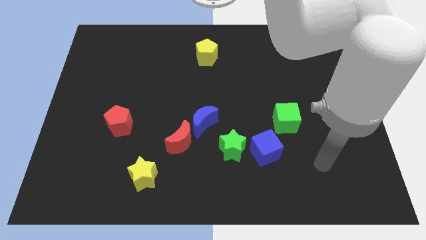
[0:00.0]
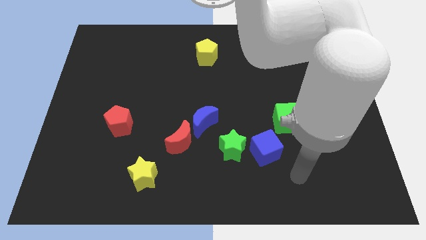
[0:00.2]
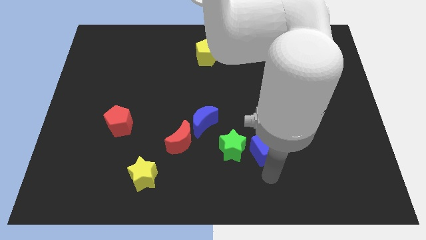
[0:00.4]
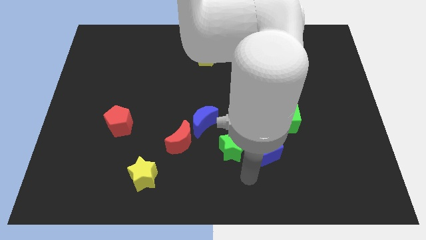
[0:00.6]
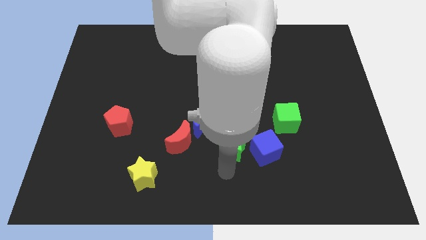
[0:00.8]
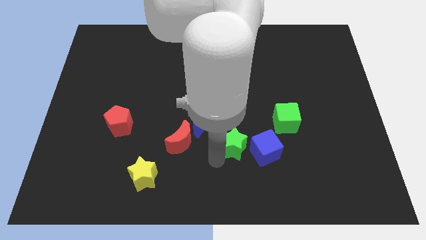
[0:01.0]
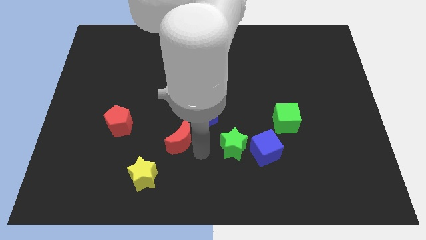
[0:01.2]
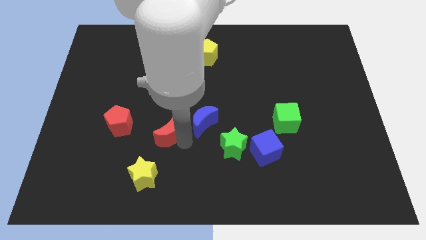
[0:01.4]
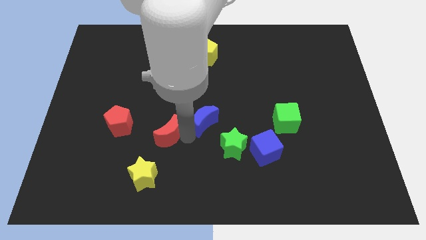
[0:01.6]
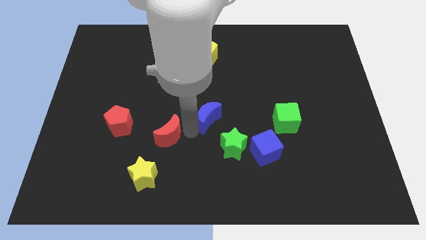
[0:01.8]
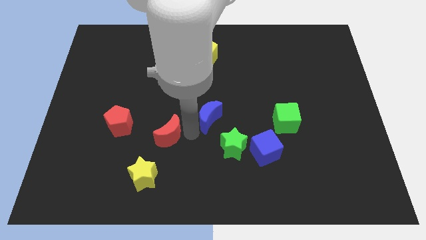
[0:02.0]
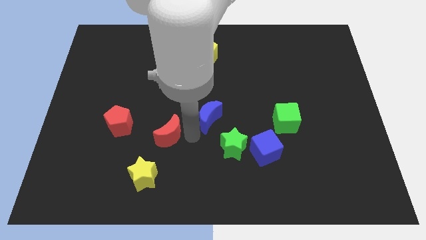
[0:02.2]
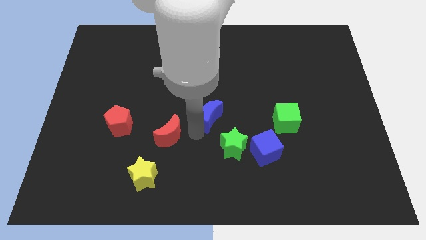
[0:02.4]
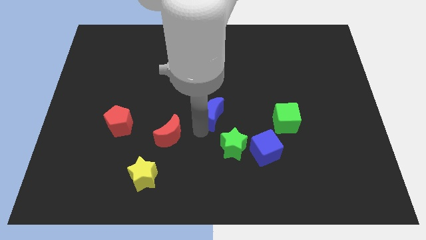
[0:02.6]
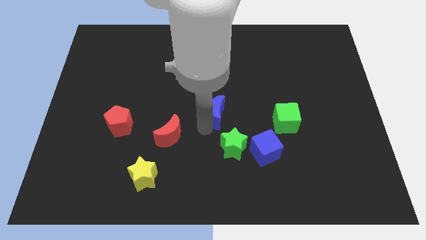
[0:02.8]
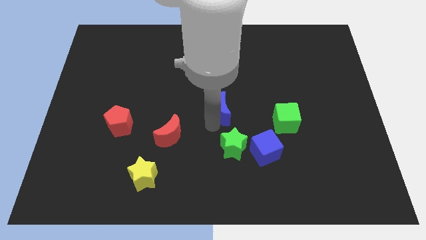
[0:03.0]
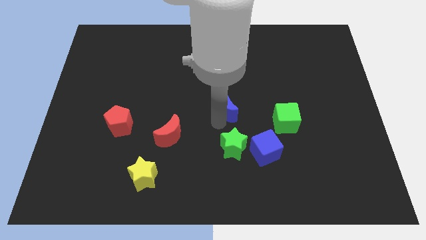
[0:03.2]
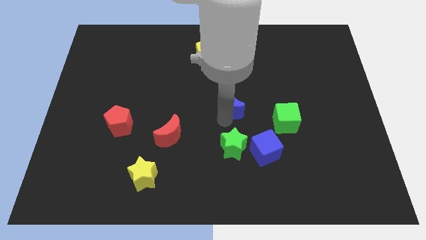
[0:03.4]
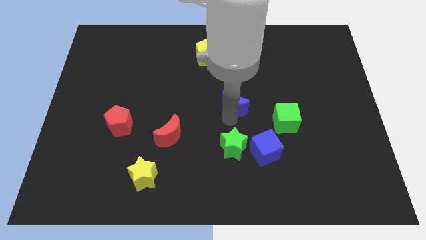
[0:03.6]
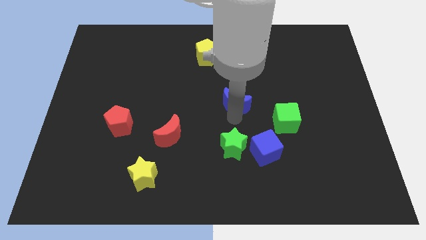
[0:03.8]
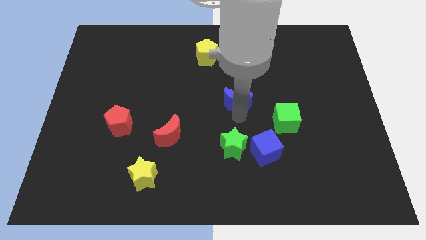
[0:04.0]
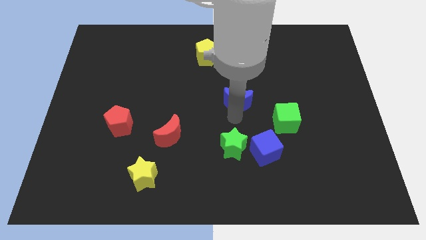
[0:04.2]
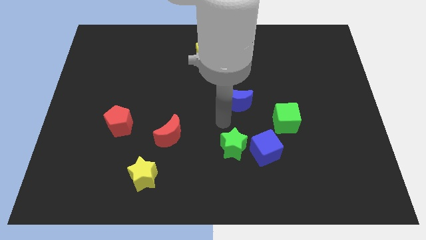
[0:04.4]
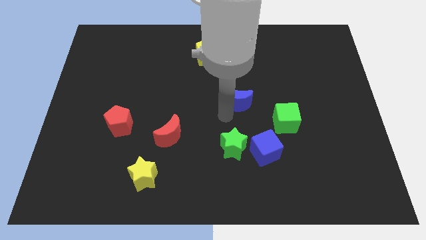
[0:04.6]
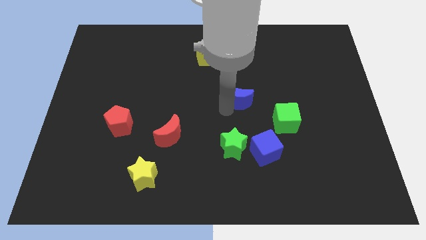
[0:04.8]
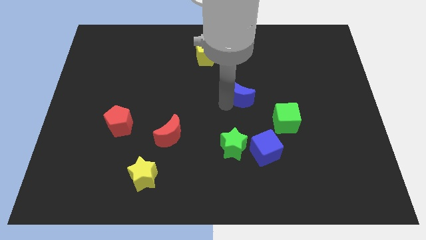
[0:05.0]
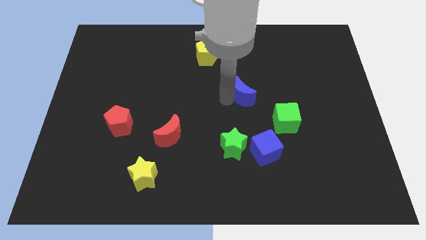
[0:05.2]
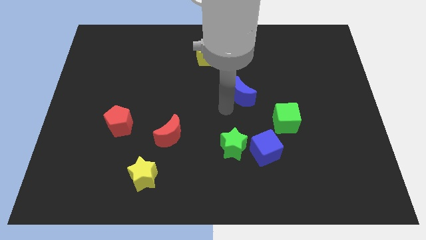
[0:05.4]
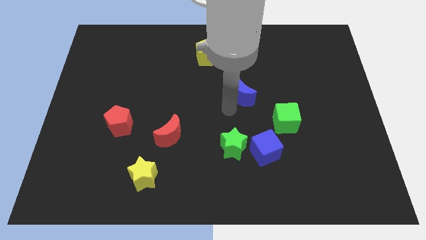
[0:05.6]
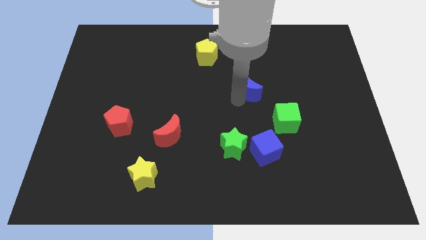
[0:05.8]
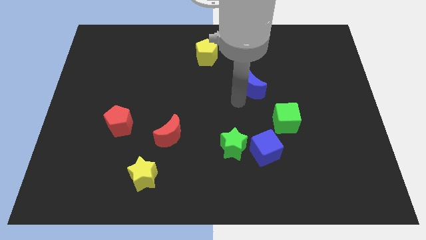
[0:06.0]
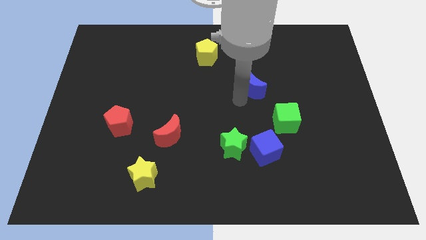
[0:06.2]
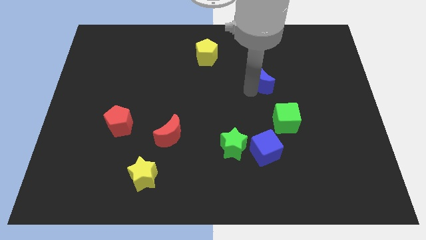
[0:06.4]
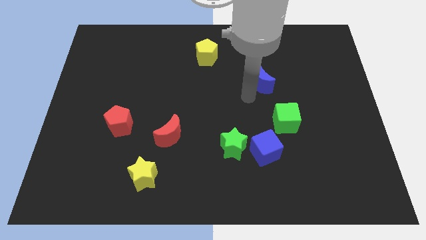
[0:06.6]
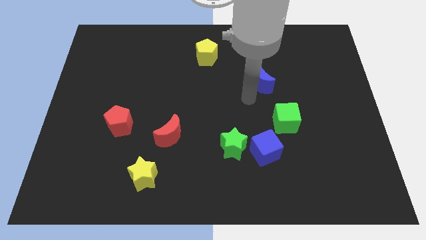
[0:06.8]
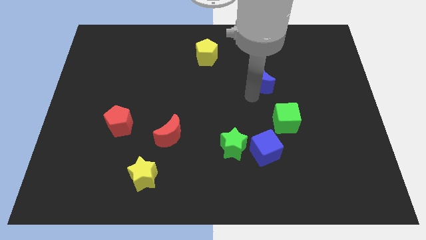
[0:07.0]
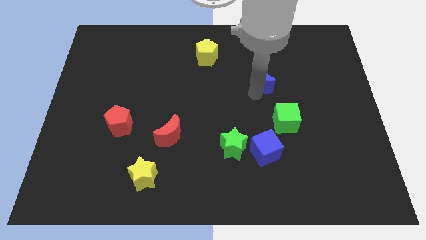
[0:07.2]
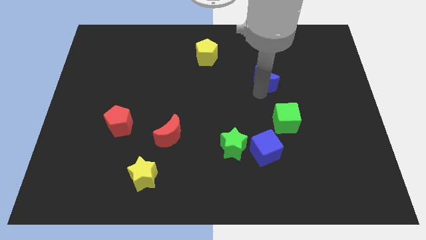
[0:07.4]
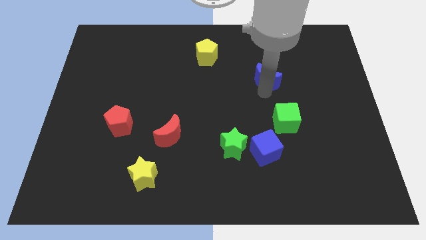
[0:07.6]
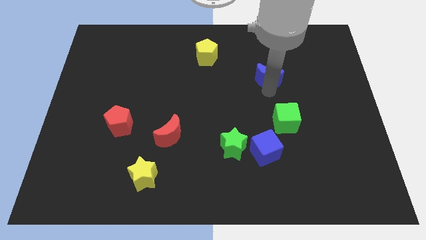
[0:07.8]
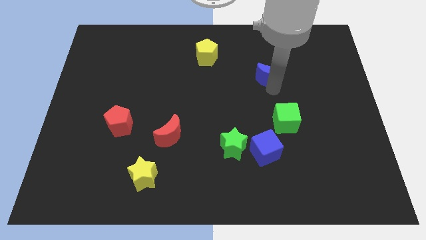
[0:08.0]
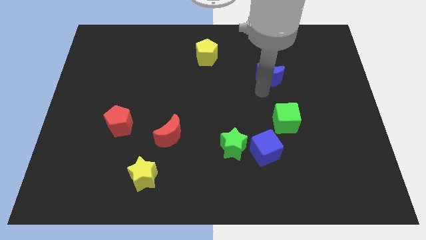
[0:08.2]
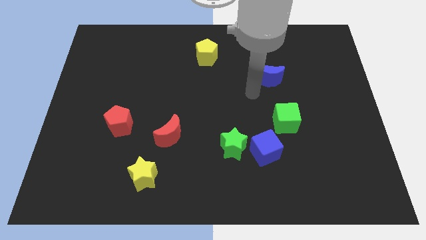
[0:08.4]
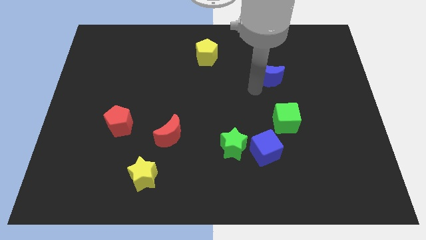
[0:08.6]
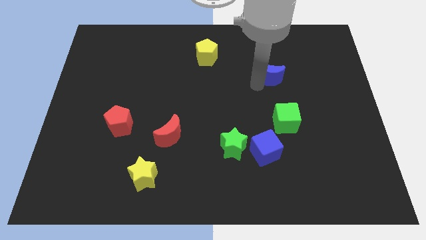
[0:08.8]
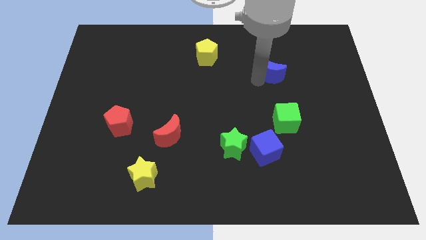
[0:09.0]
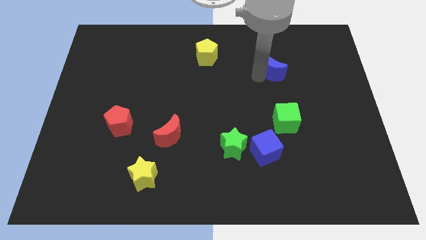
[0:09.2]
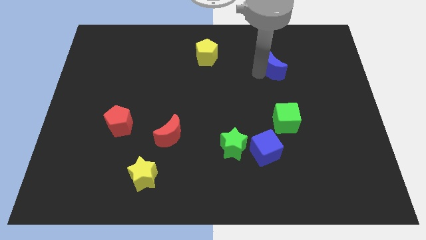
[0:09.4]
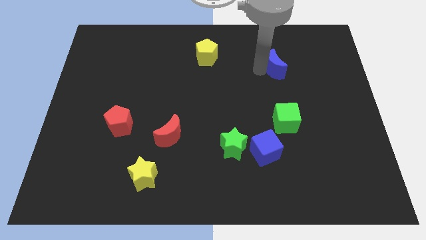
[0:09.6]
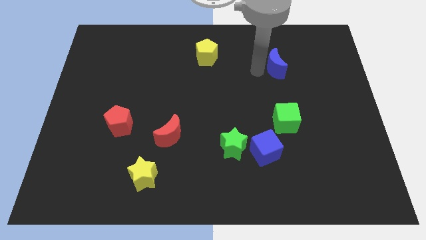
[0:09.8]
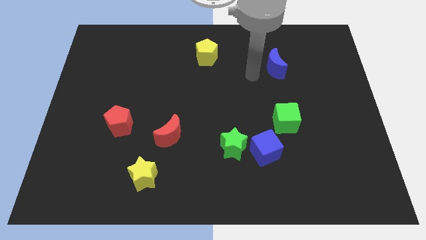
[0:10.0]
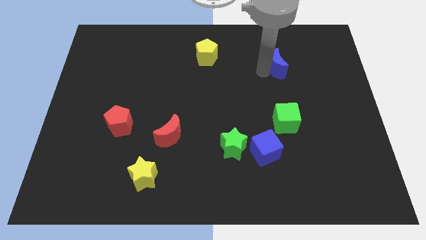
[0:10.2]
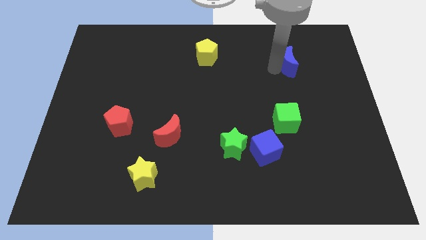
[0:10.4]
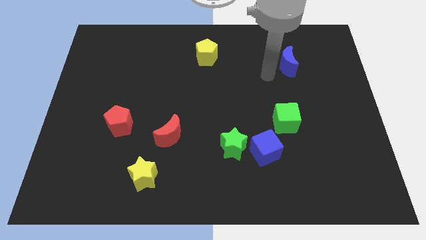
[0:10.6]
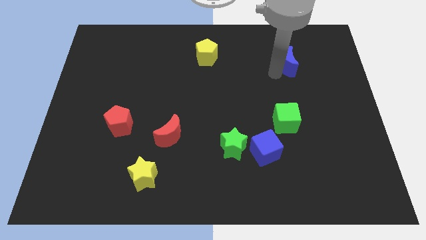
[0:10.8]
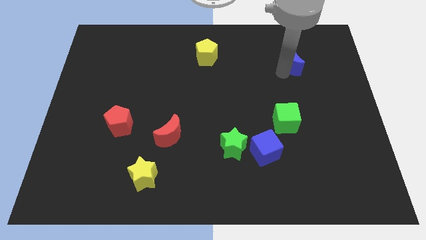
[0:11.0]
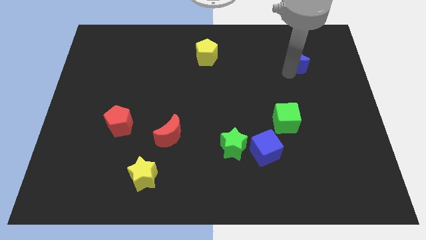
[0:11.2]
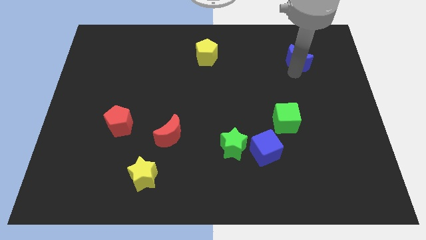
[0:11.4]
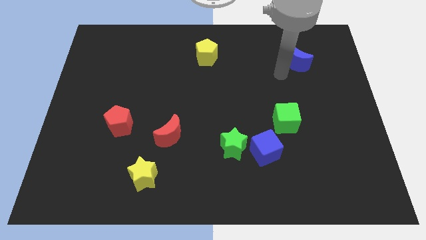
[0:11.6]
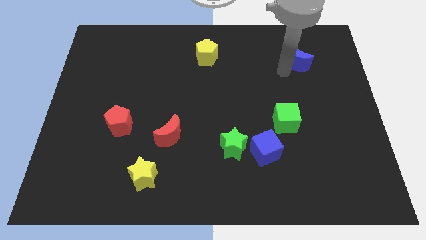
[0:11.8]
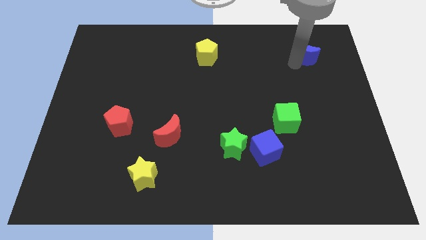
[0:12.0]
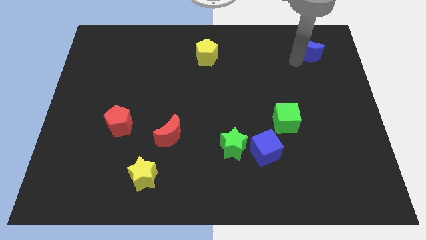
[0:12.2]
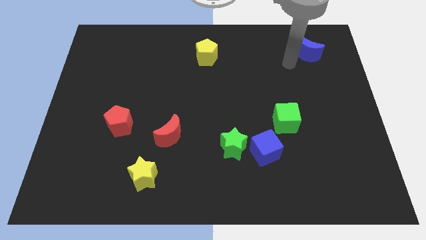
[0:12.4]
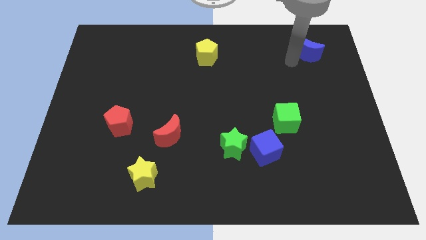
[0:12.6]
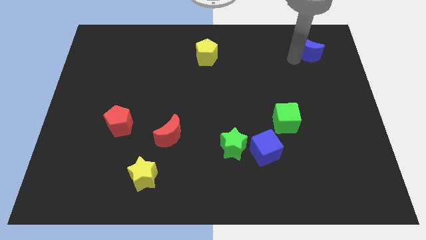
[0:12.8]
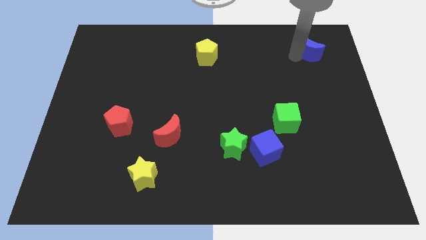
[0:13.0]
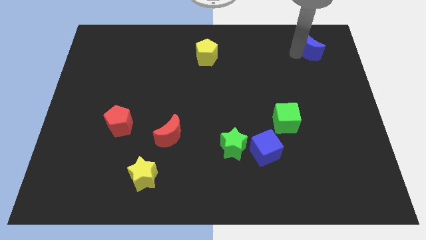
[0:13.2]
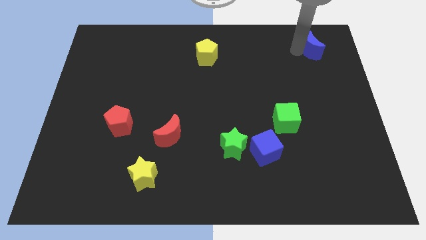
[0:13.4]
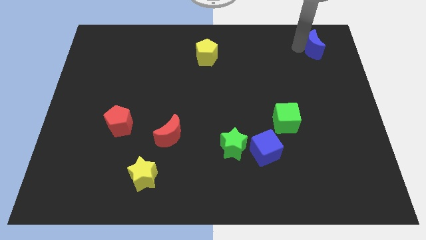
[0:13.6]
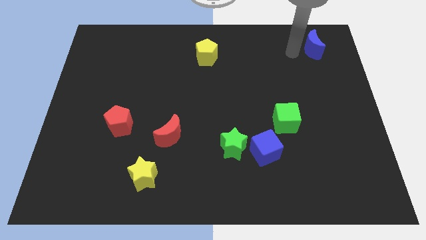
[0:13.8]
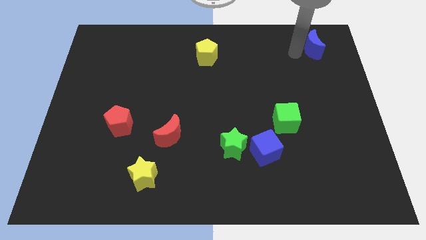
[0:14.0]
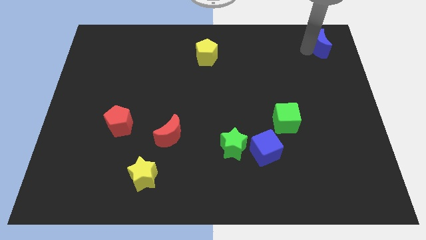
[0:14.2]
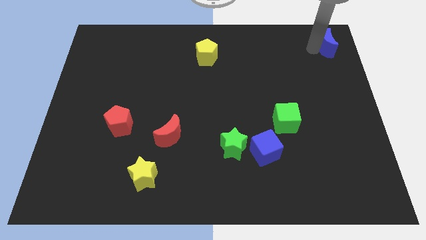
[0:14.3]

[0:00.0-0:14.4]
put the blue moon to the top right

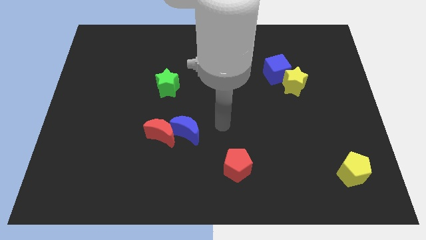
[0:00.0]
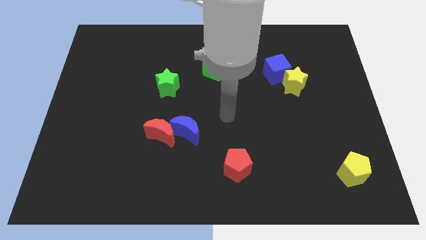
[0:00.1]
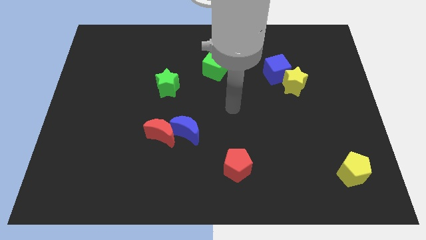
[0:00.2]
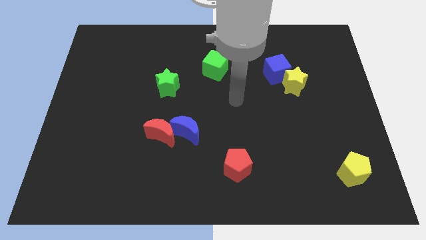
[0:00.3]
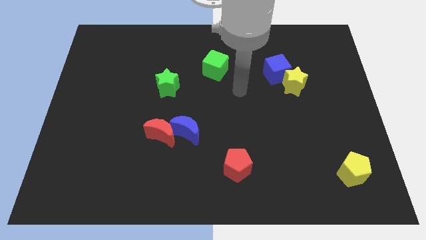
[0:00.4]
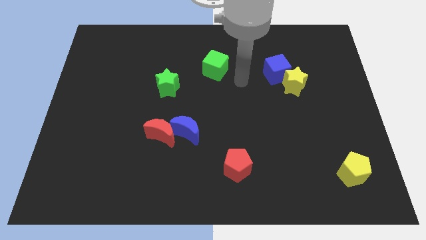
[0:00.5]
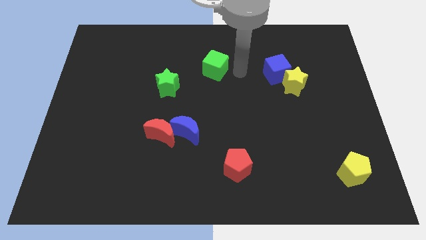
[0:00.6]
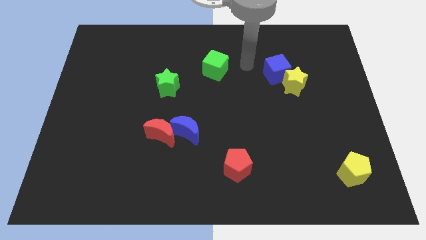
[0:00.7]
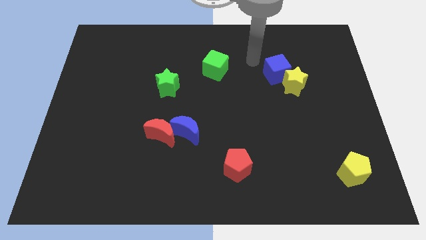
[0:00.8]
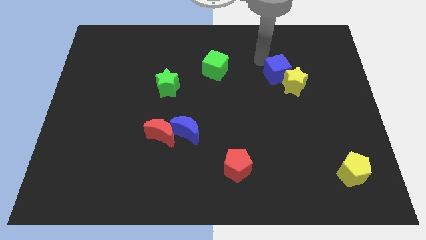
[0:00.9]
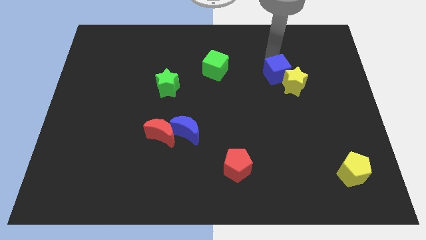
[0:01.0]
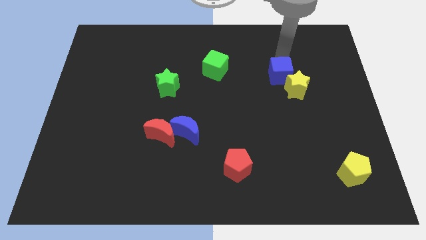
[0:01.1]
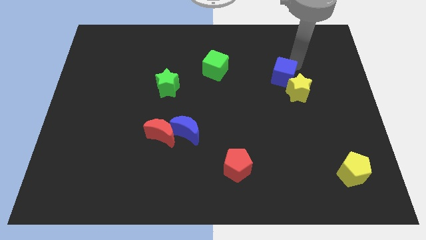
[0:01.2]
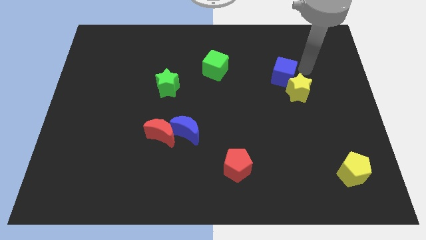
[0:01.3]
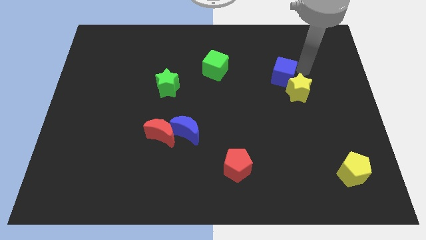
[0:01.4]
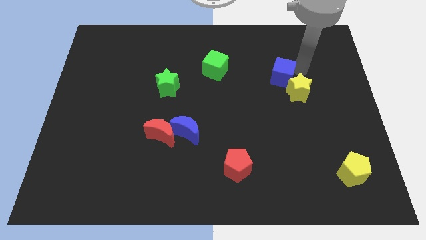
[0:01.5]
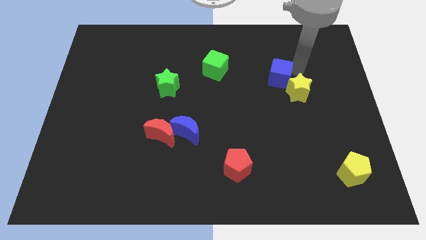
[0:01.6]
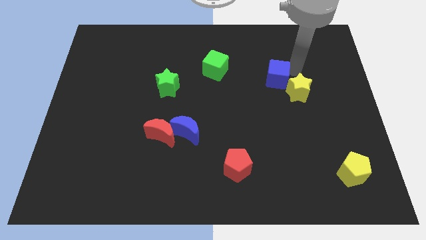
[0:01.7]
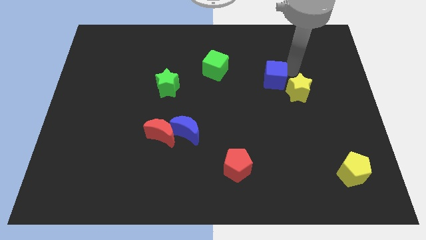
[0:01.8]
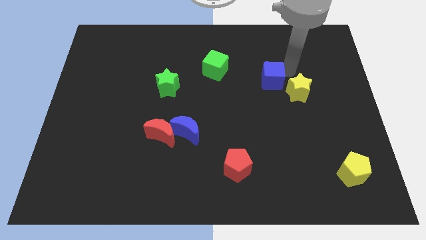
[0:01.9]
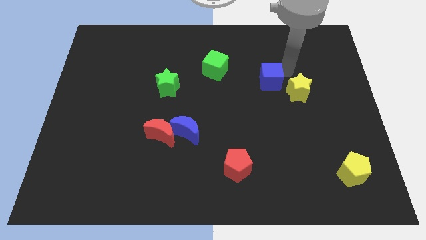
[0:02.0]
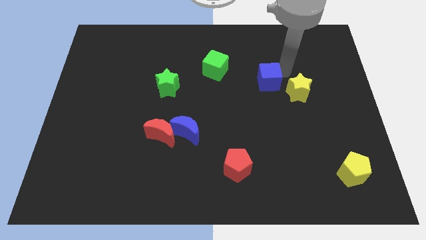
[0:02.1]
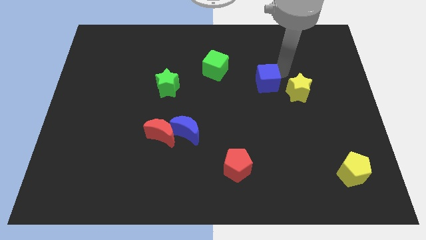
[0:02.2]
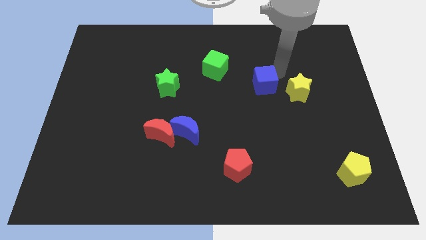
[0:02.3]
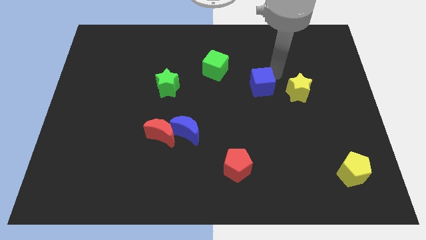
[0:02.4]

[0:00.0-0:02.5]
slide the blue cube to the center
